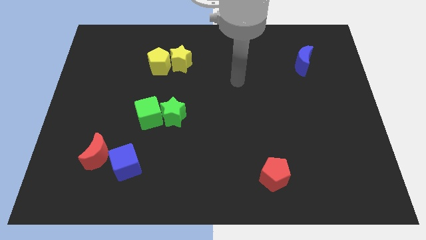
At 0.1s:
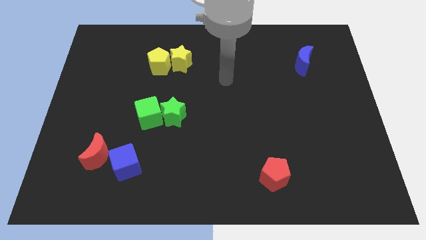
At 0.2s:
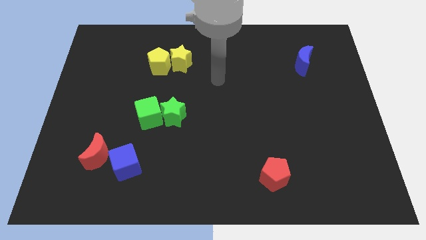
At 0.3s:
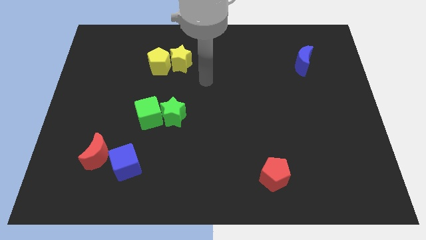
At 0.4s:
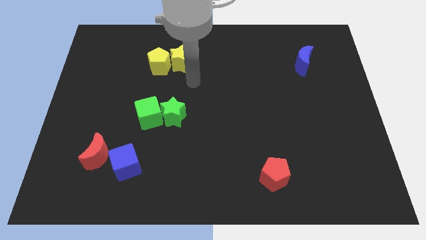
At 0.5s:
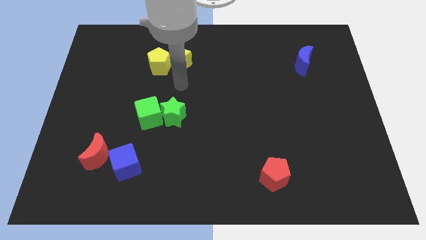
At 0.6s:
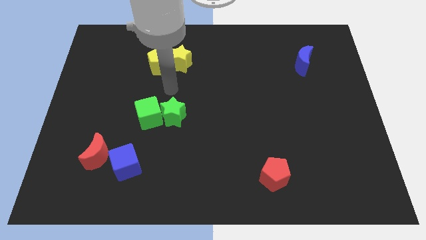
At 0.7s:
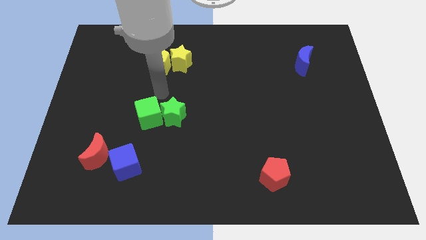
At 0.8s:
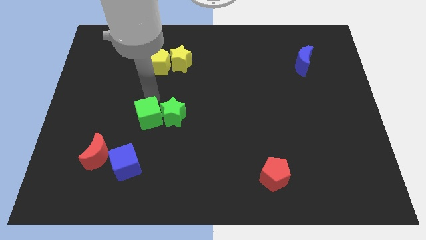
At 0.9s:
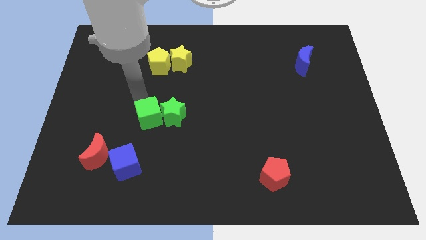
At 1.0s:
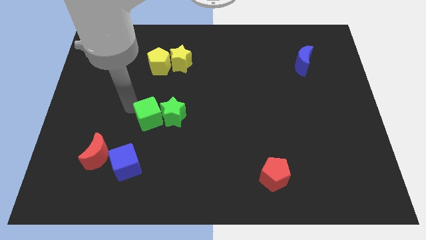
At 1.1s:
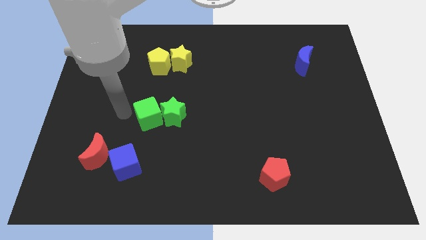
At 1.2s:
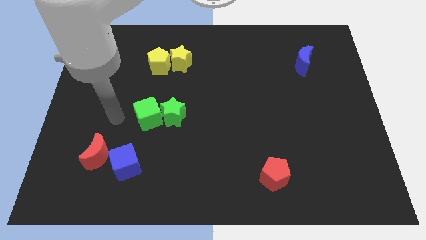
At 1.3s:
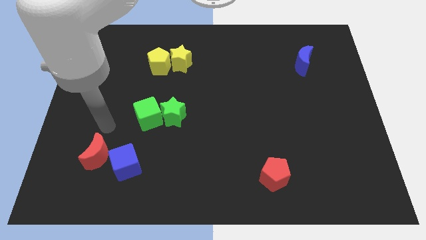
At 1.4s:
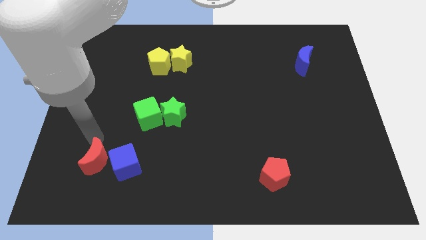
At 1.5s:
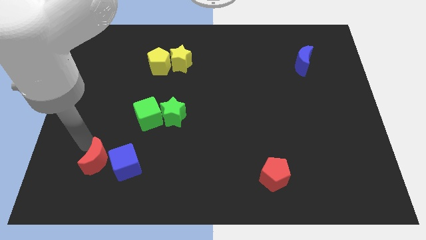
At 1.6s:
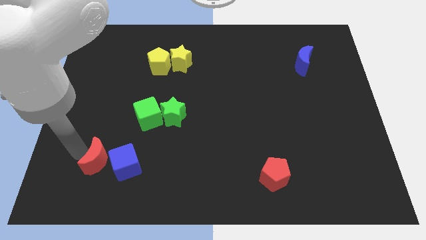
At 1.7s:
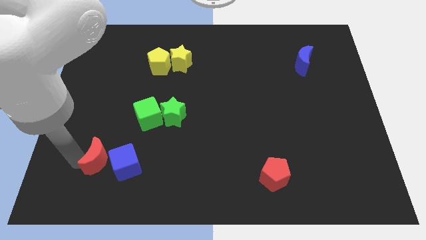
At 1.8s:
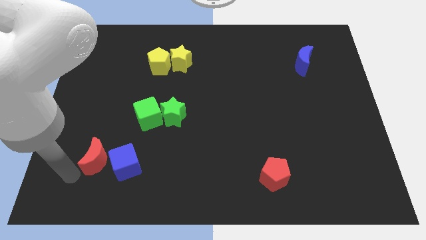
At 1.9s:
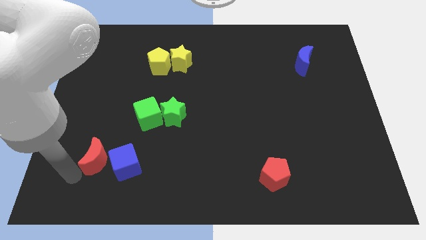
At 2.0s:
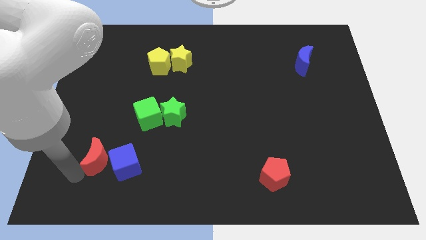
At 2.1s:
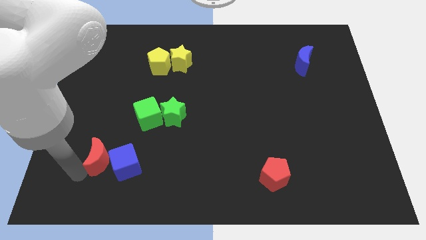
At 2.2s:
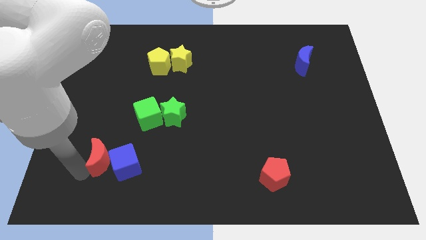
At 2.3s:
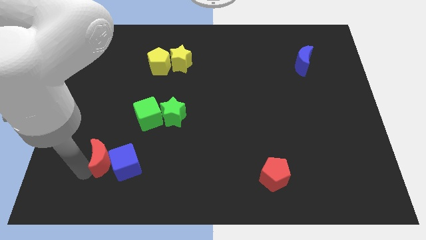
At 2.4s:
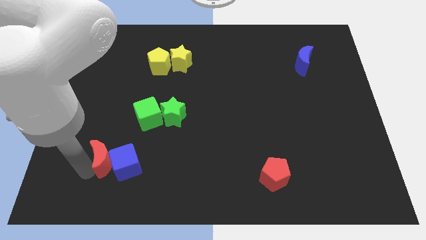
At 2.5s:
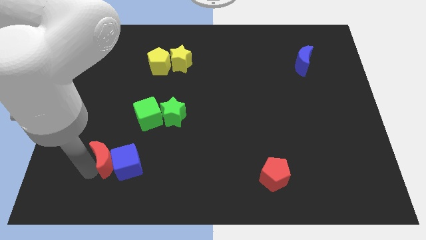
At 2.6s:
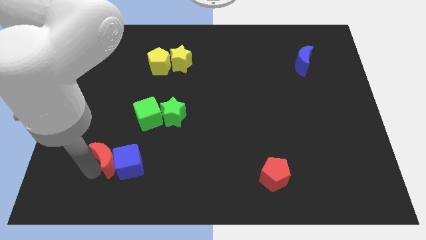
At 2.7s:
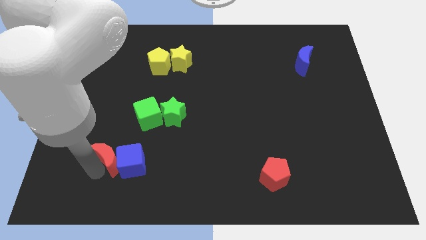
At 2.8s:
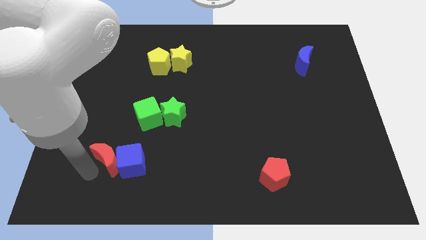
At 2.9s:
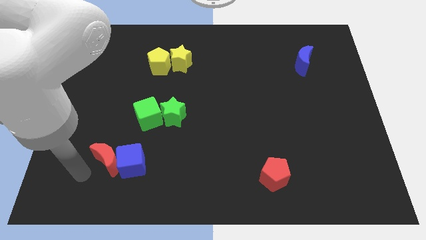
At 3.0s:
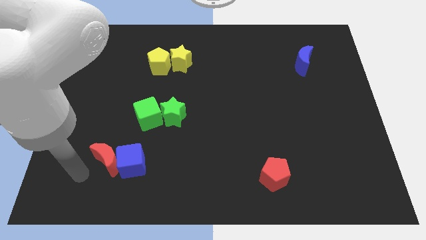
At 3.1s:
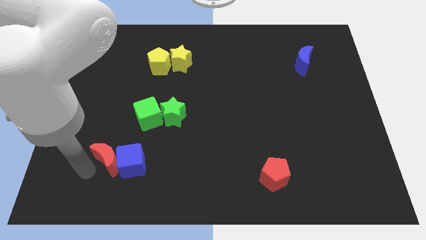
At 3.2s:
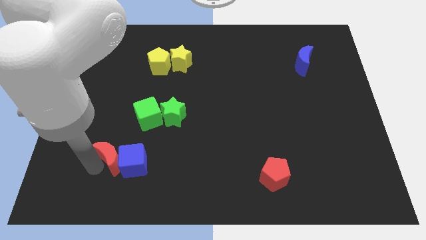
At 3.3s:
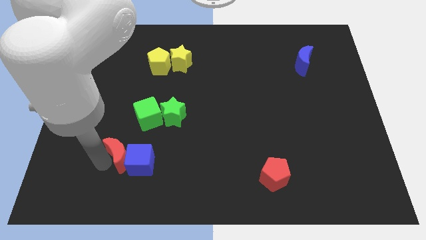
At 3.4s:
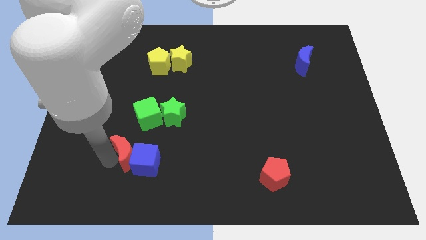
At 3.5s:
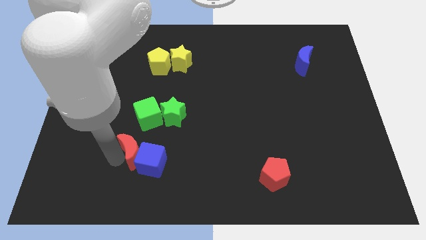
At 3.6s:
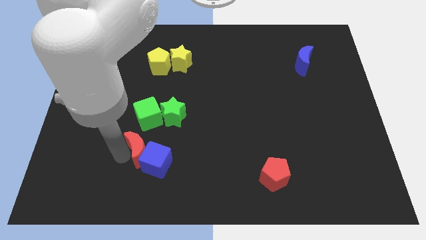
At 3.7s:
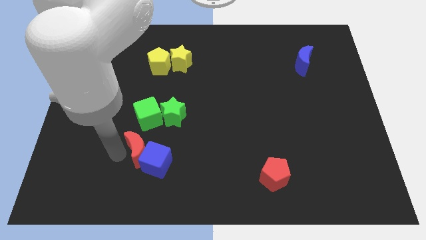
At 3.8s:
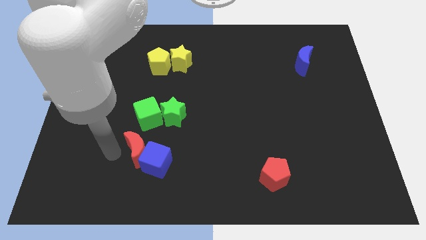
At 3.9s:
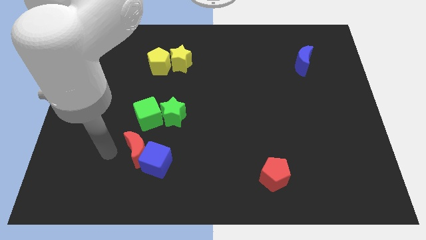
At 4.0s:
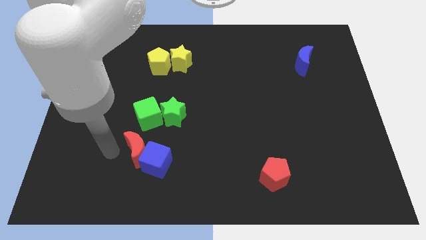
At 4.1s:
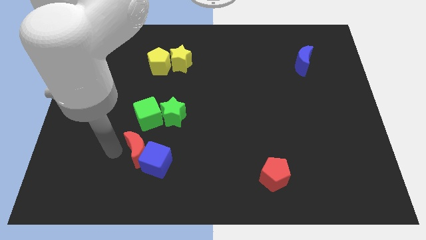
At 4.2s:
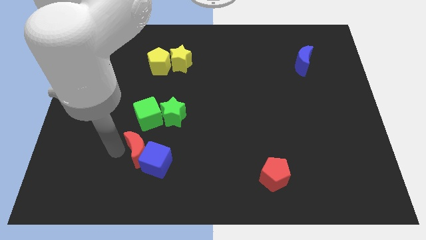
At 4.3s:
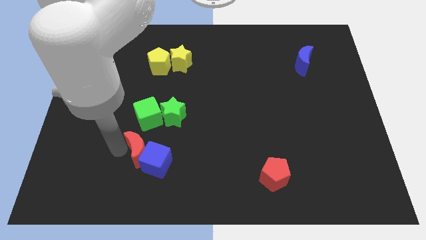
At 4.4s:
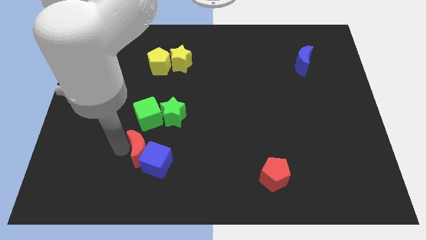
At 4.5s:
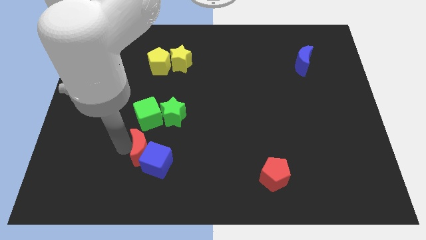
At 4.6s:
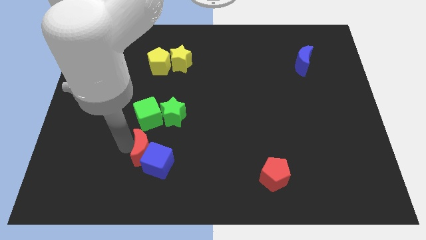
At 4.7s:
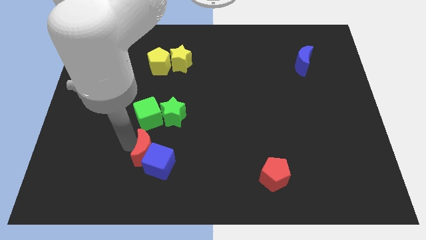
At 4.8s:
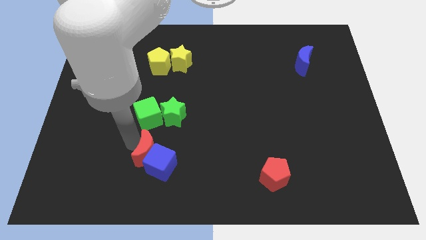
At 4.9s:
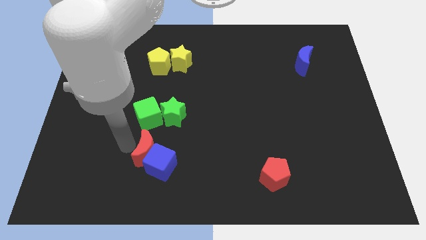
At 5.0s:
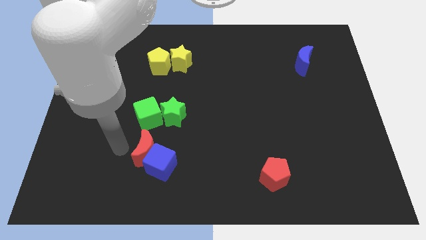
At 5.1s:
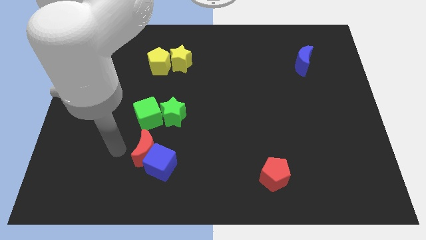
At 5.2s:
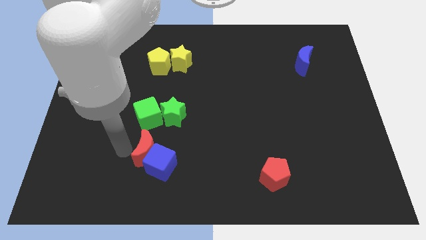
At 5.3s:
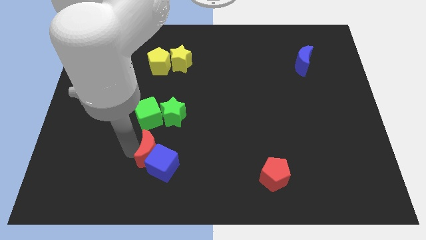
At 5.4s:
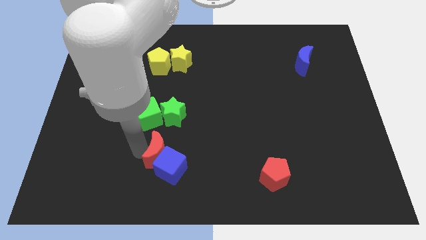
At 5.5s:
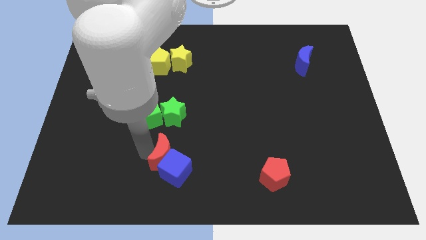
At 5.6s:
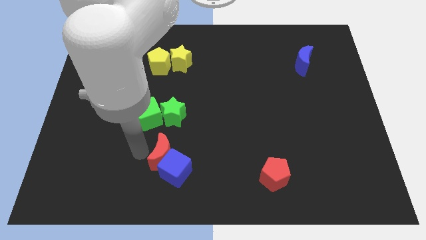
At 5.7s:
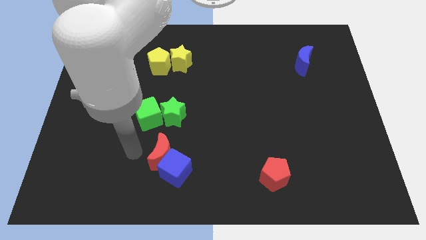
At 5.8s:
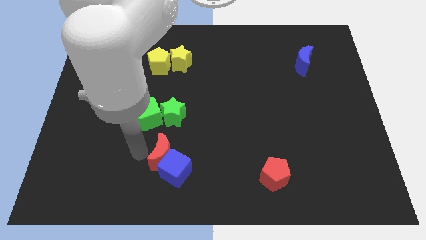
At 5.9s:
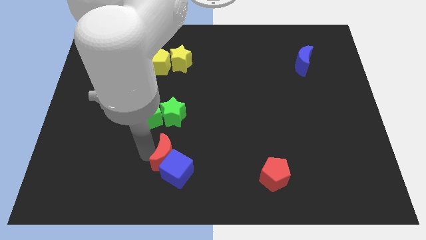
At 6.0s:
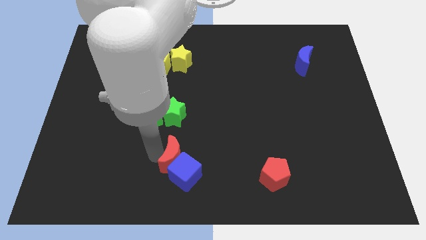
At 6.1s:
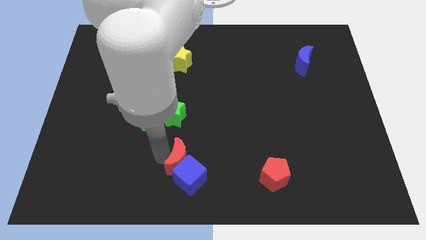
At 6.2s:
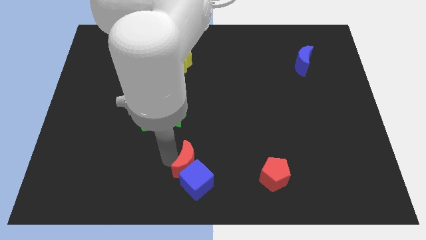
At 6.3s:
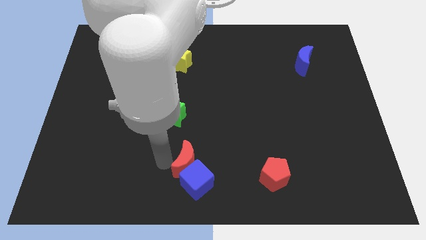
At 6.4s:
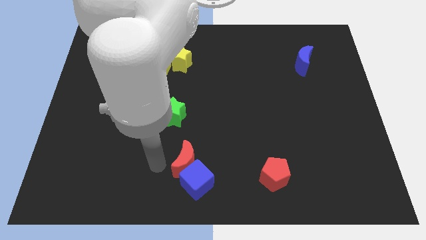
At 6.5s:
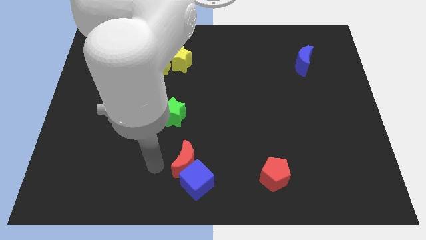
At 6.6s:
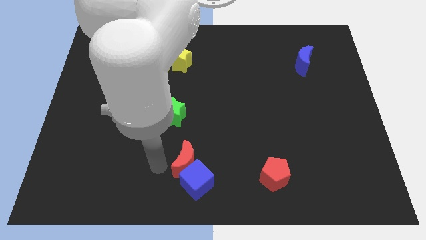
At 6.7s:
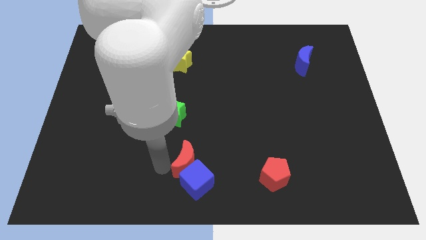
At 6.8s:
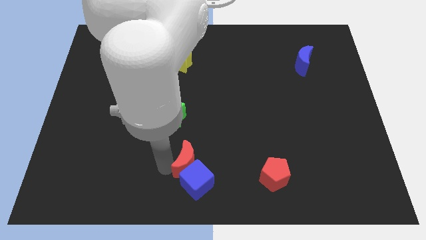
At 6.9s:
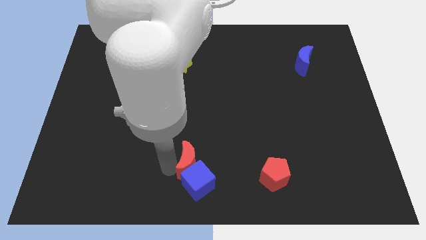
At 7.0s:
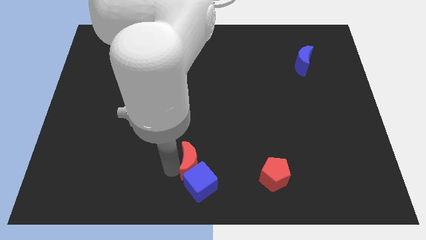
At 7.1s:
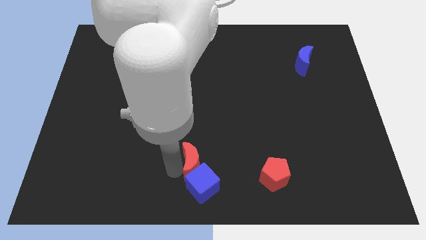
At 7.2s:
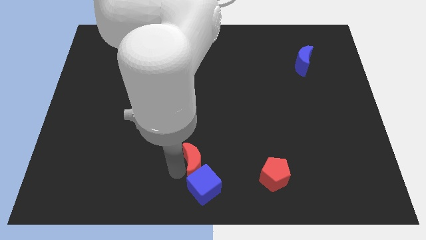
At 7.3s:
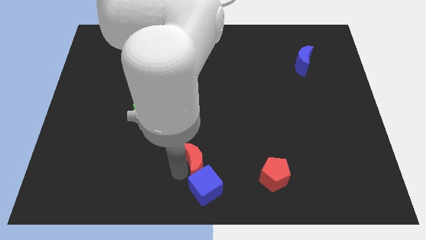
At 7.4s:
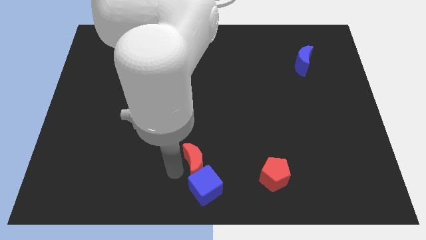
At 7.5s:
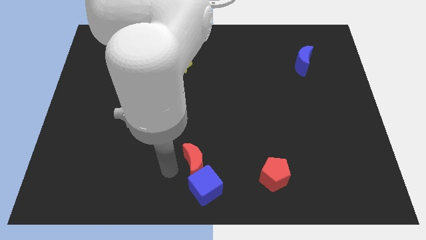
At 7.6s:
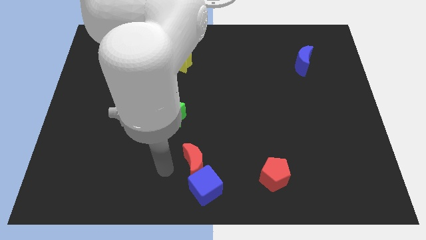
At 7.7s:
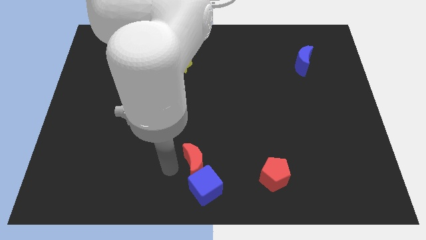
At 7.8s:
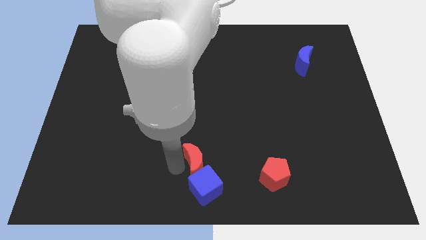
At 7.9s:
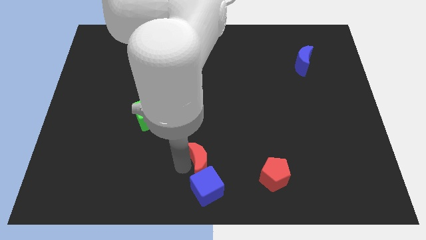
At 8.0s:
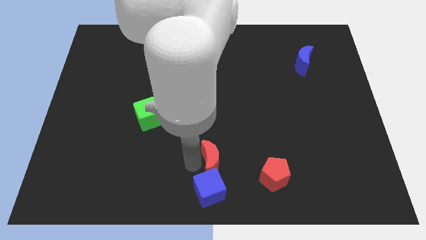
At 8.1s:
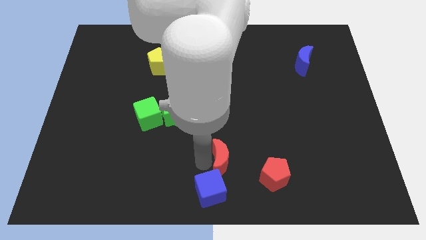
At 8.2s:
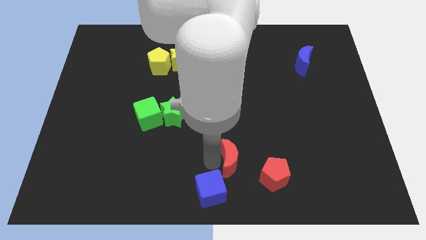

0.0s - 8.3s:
put the red moon to the top left of the red pentagon
